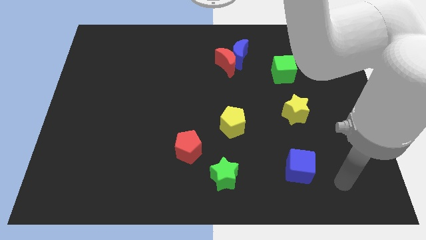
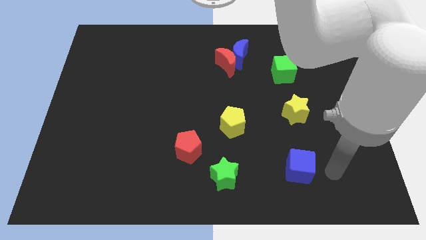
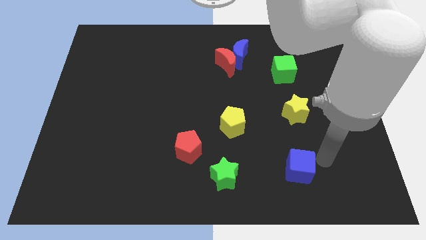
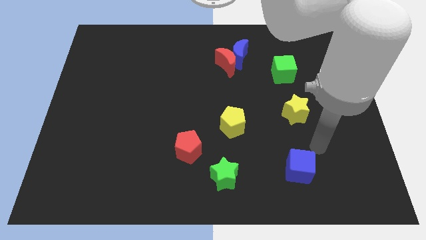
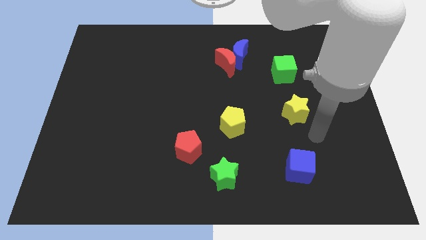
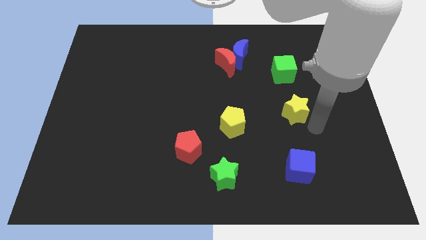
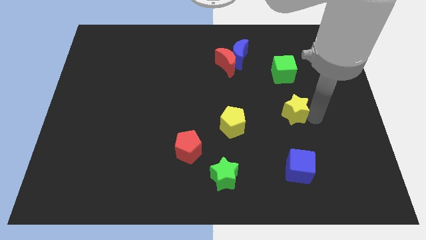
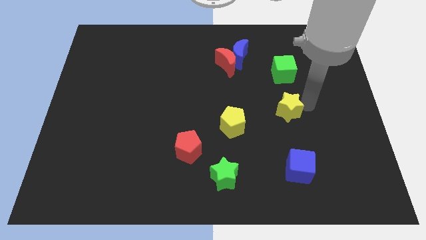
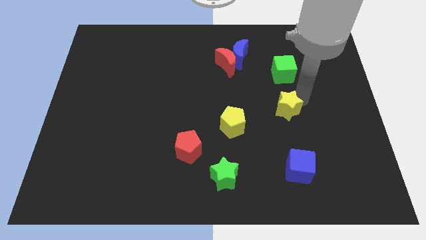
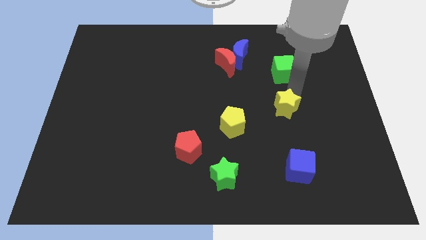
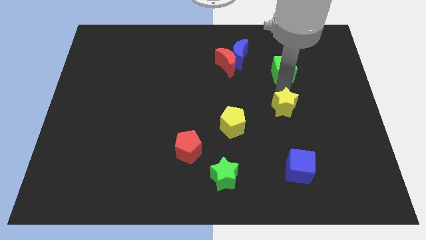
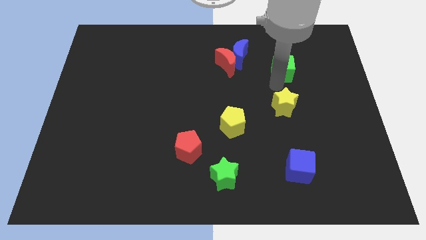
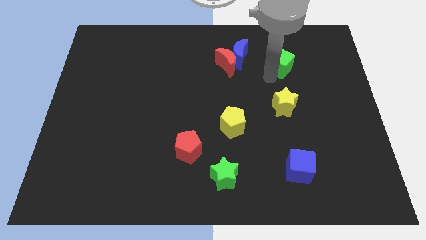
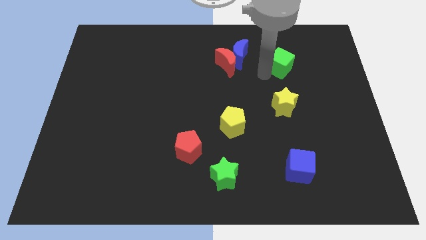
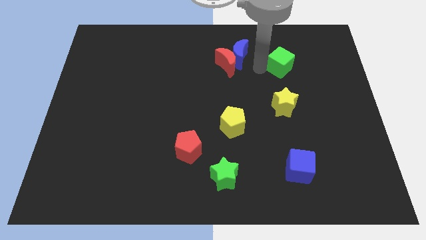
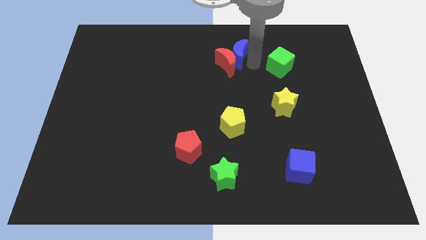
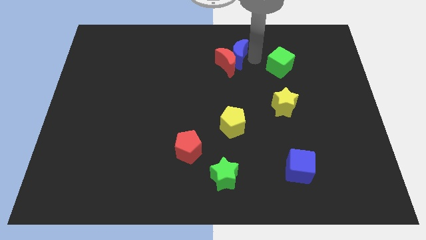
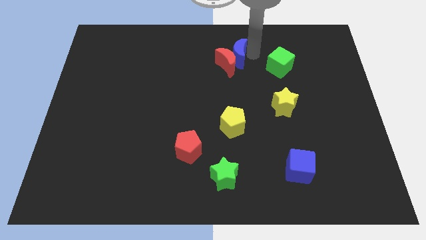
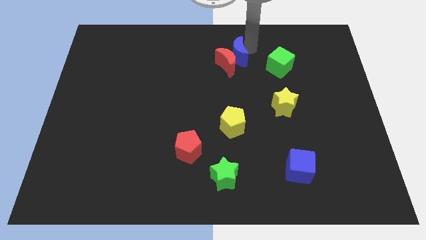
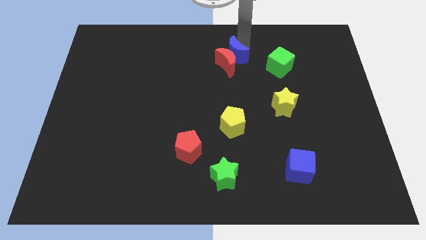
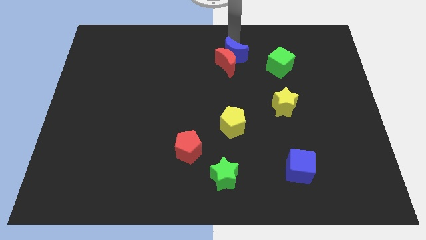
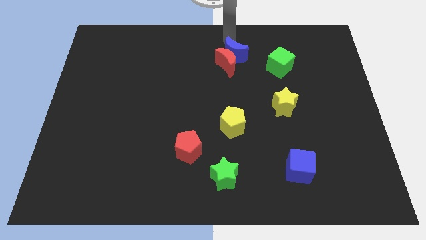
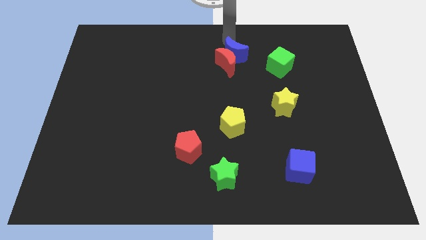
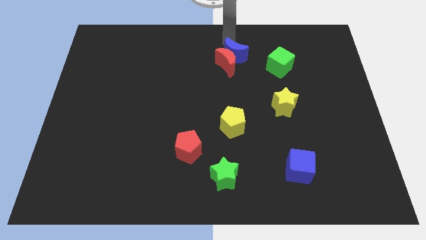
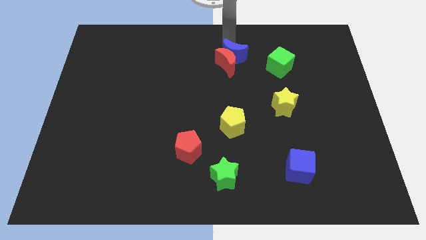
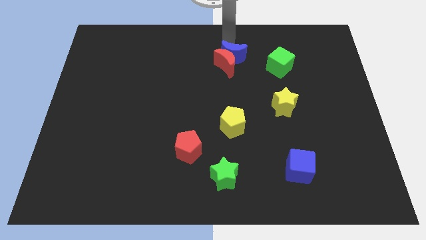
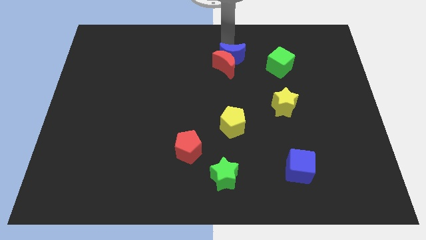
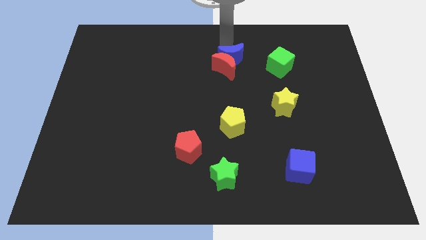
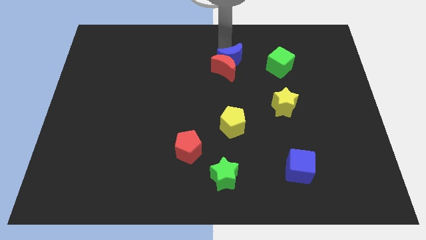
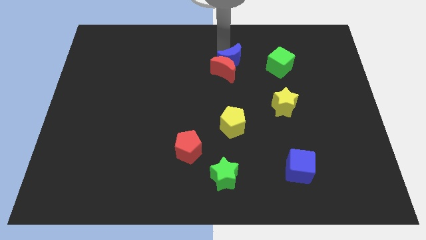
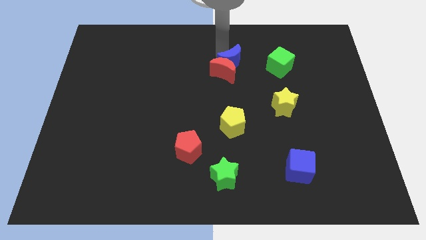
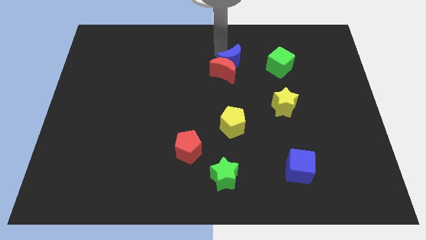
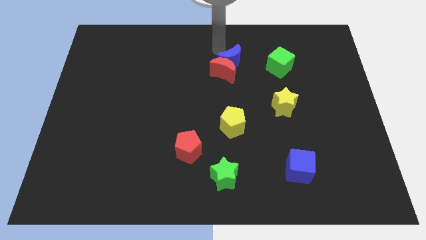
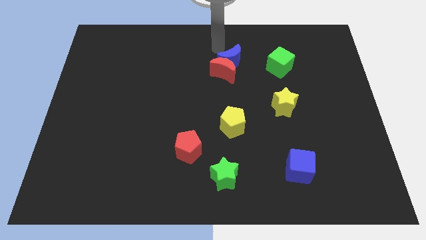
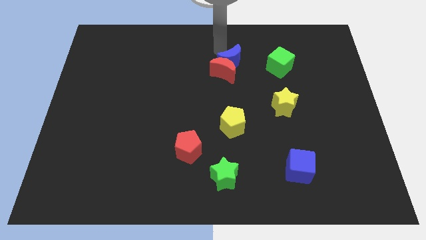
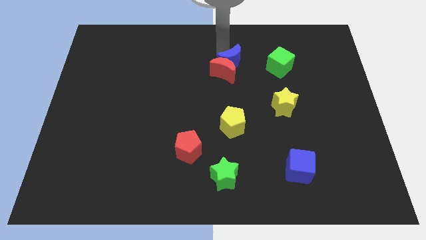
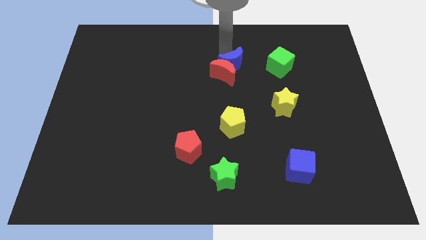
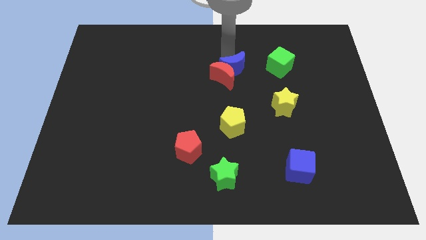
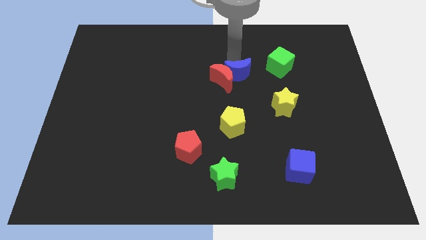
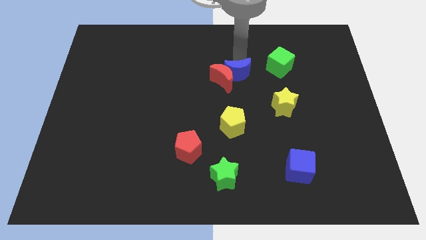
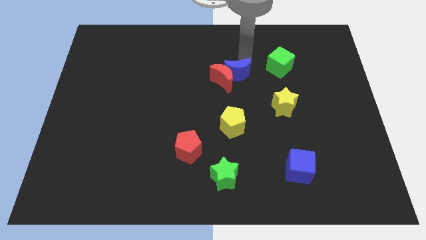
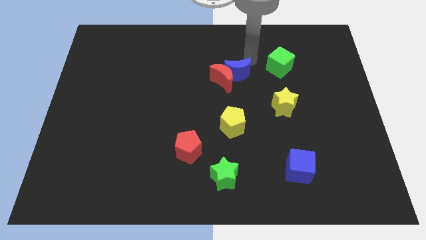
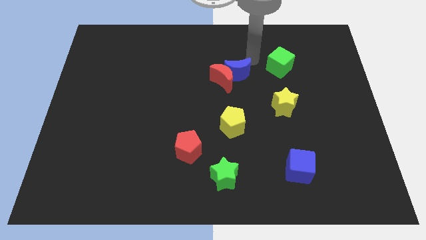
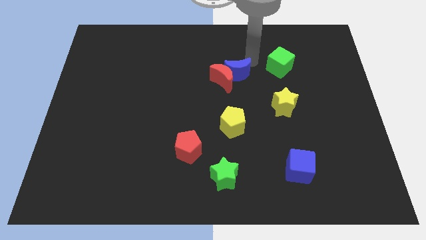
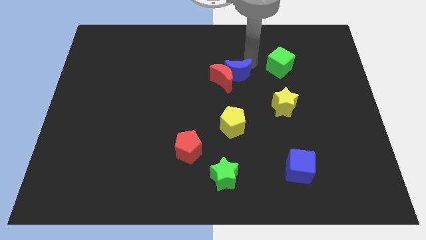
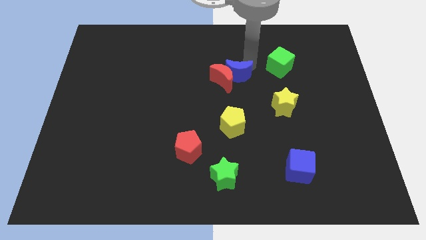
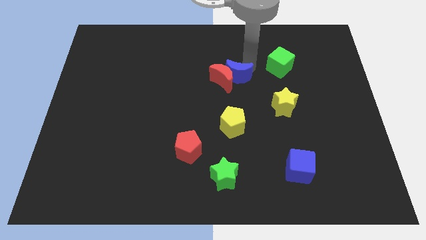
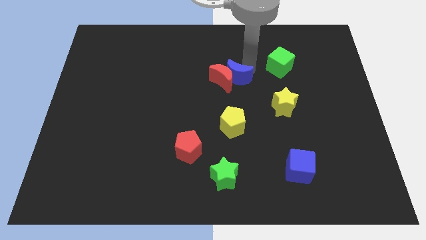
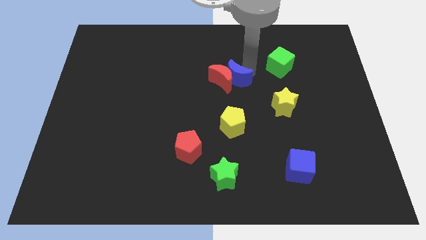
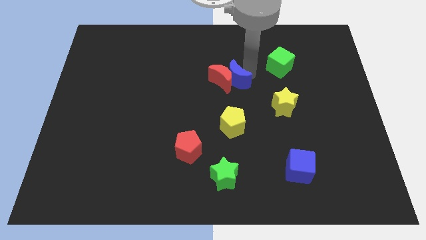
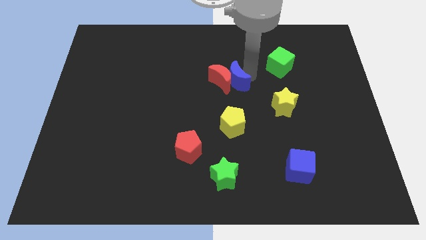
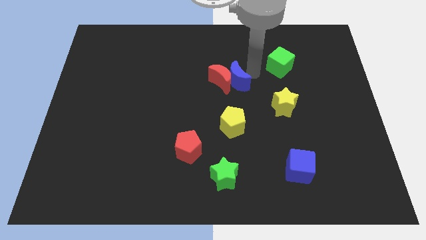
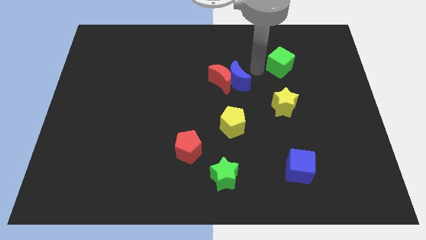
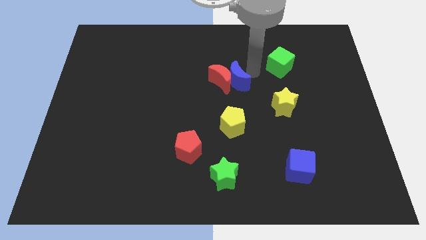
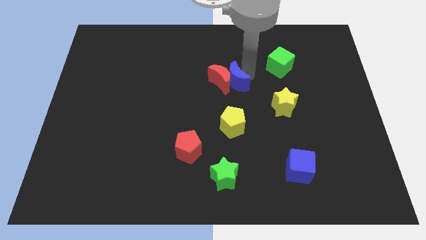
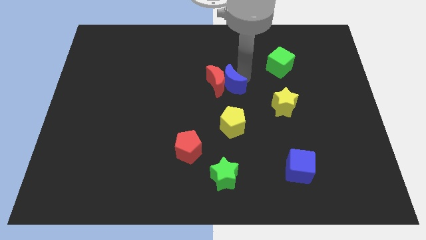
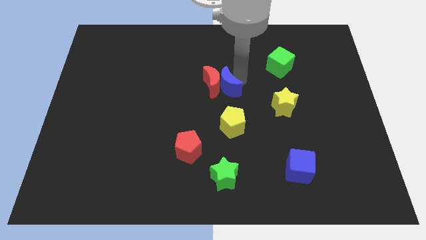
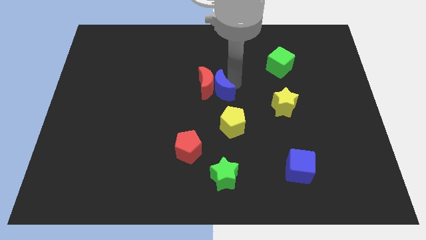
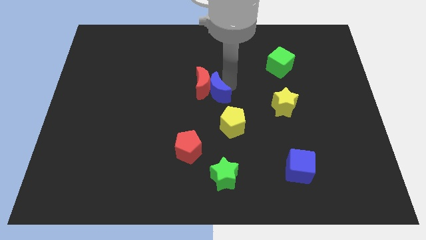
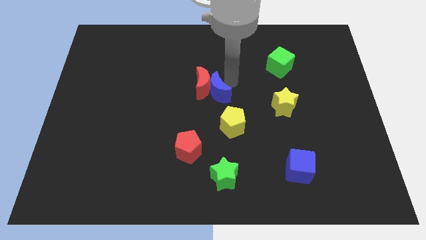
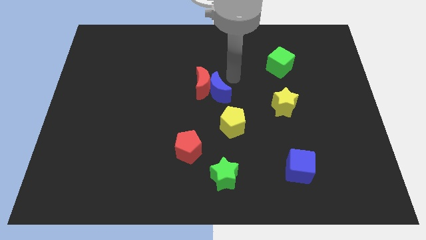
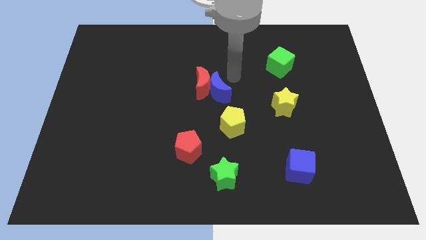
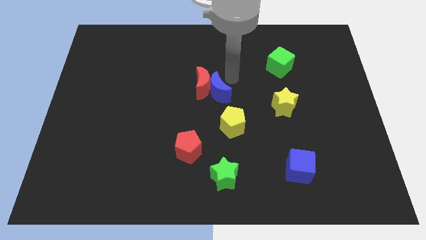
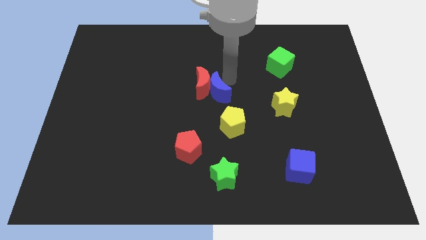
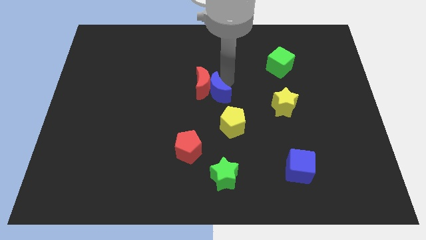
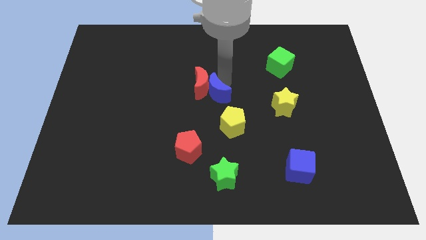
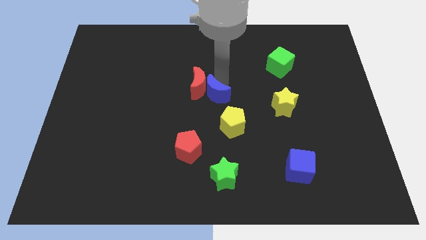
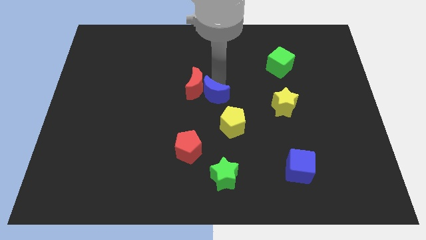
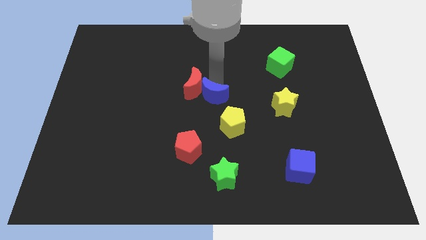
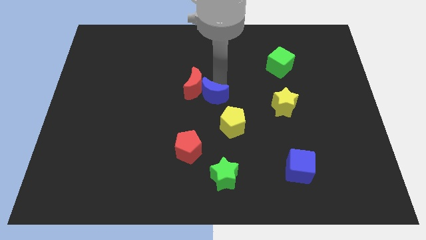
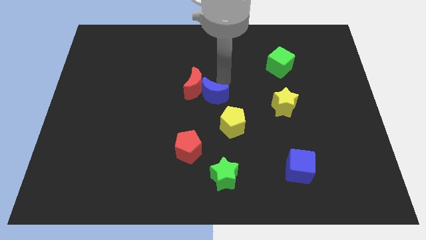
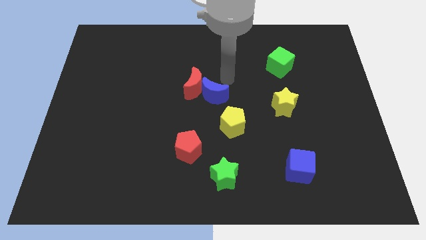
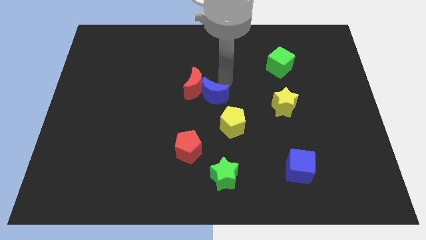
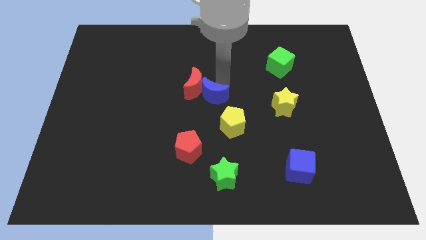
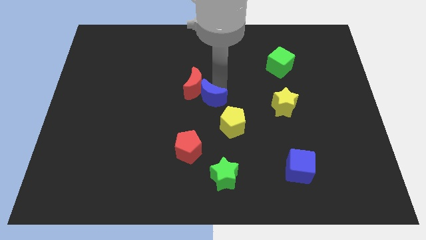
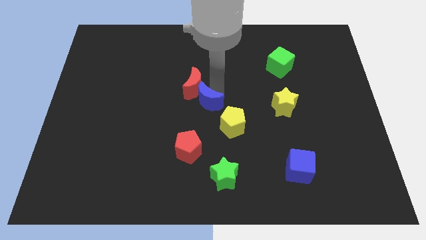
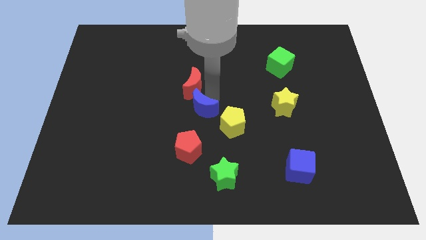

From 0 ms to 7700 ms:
move the blue moon to the left of the yellow pentagon
